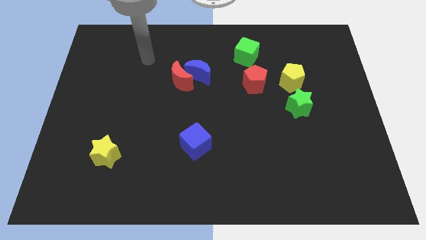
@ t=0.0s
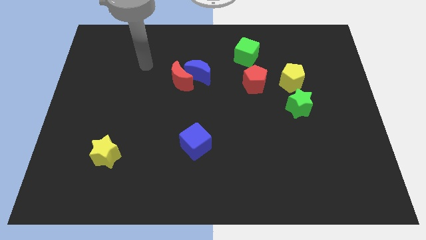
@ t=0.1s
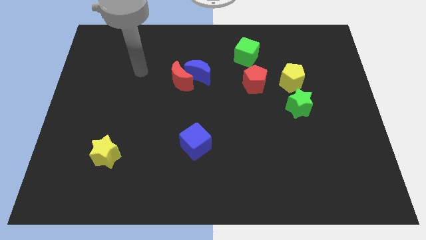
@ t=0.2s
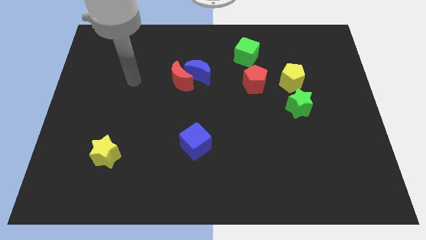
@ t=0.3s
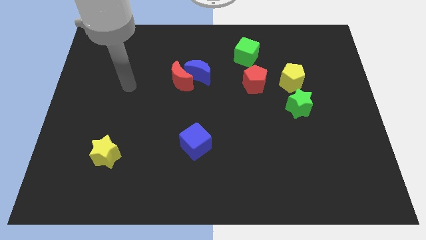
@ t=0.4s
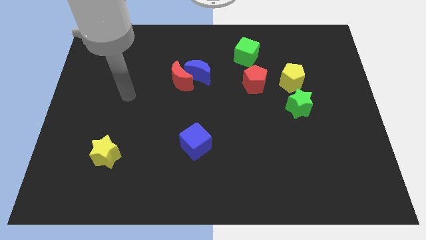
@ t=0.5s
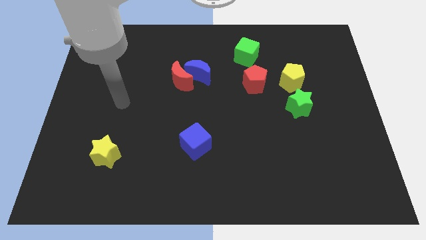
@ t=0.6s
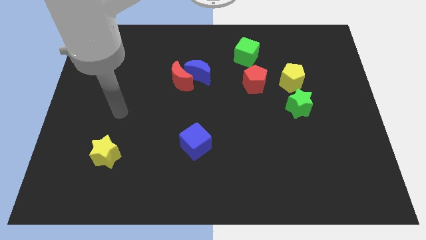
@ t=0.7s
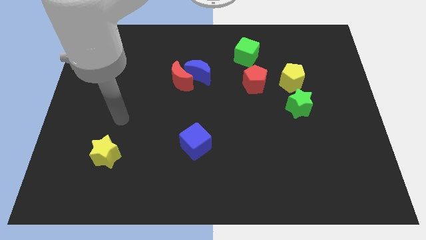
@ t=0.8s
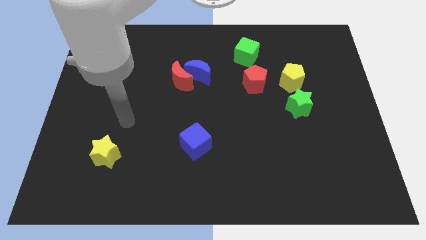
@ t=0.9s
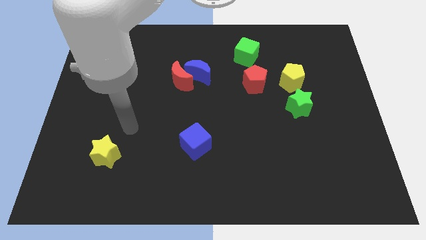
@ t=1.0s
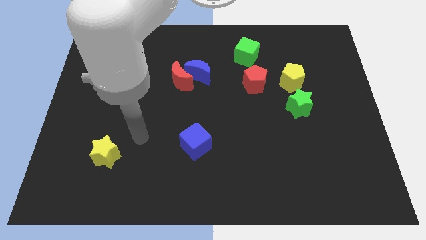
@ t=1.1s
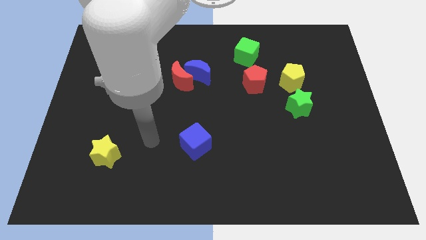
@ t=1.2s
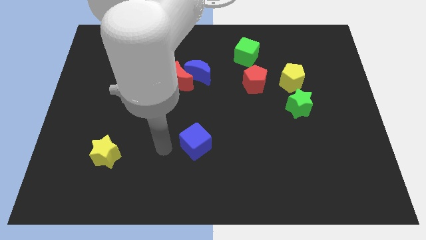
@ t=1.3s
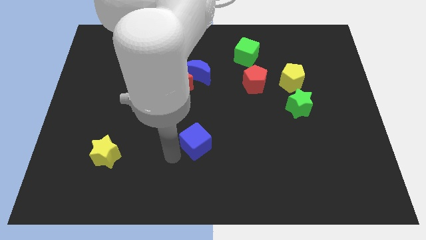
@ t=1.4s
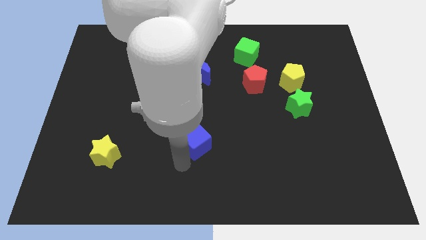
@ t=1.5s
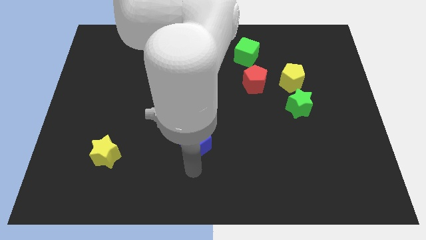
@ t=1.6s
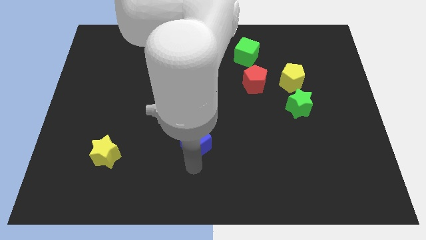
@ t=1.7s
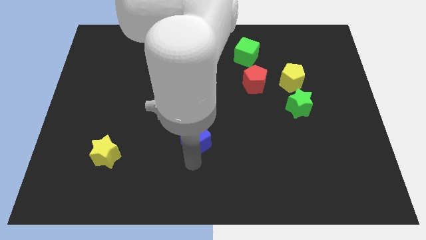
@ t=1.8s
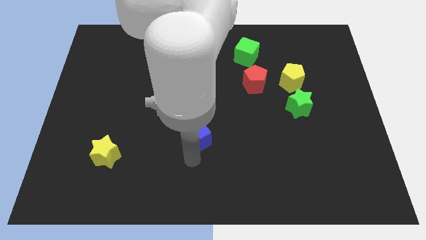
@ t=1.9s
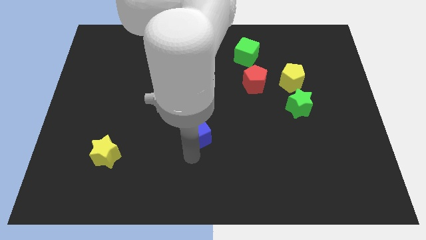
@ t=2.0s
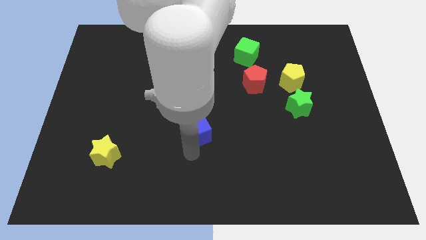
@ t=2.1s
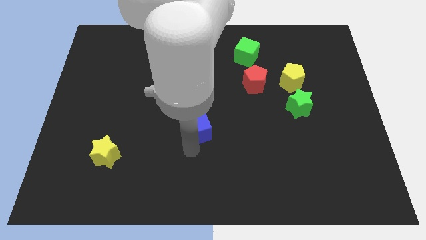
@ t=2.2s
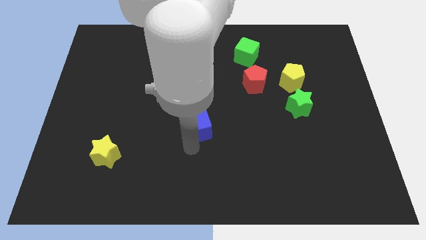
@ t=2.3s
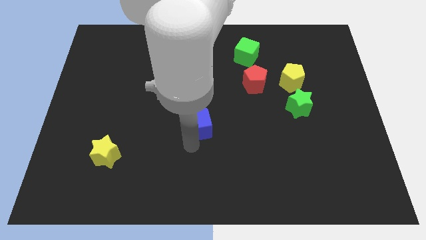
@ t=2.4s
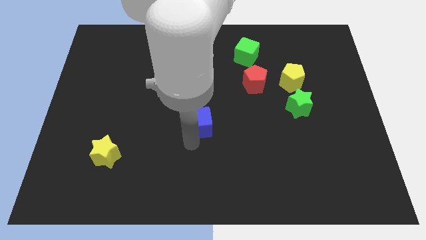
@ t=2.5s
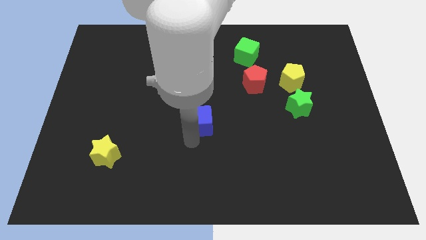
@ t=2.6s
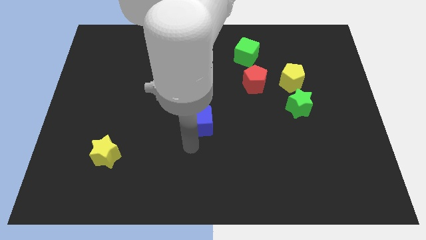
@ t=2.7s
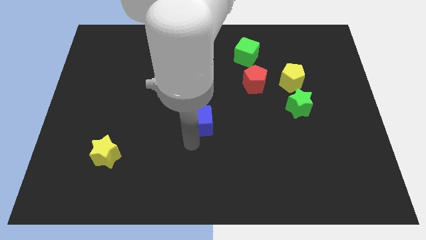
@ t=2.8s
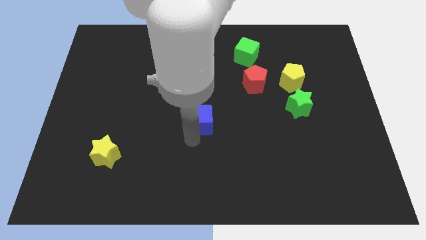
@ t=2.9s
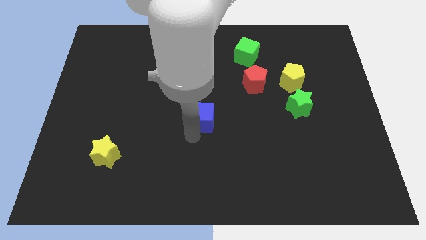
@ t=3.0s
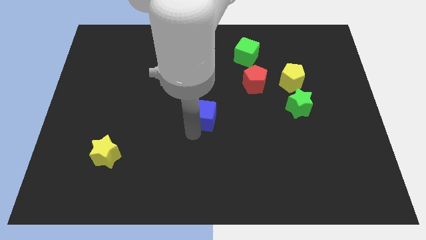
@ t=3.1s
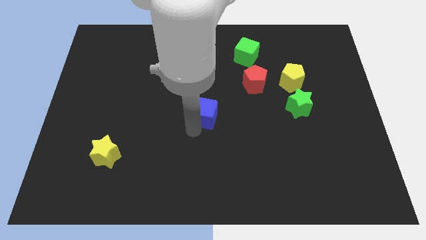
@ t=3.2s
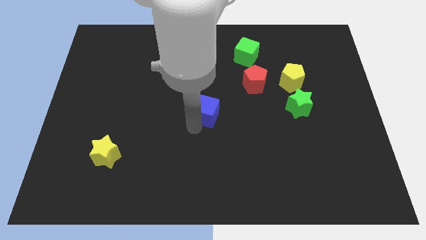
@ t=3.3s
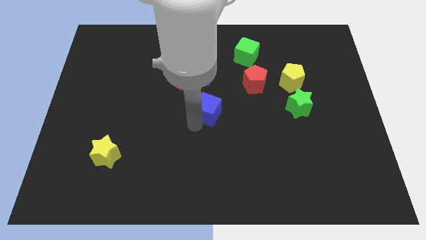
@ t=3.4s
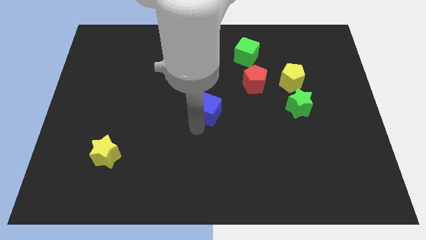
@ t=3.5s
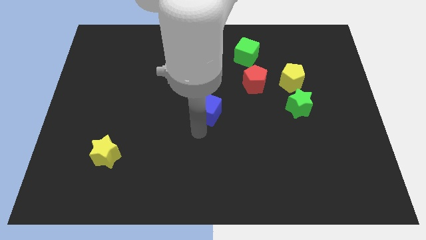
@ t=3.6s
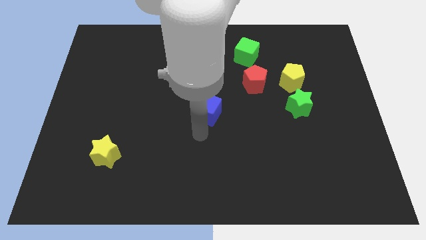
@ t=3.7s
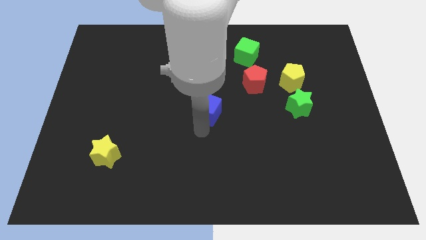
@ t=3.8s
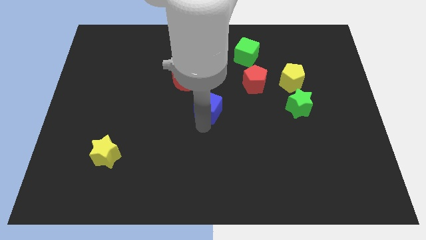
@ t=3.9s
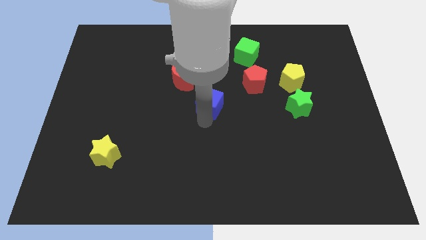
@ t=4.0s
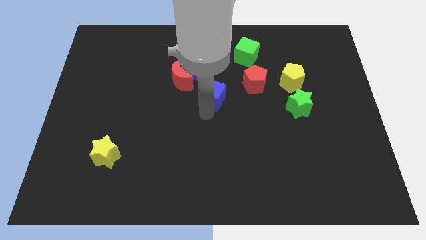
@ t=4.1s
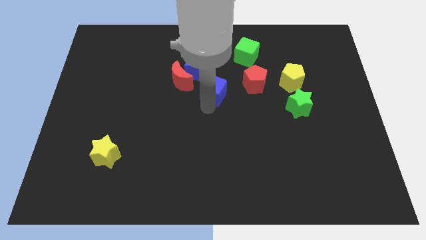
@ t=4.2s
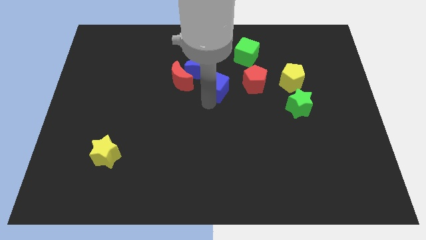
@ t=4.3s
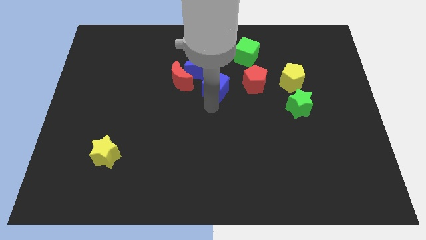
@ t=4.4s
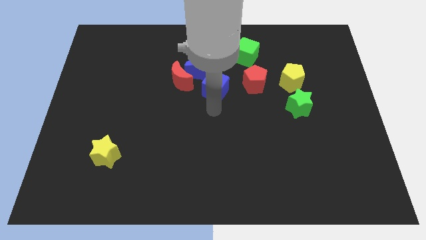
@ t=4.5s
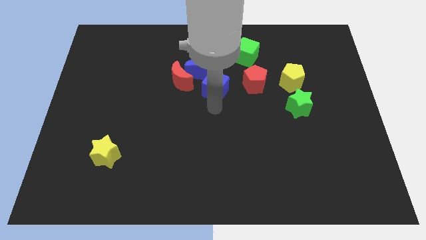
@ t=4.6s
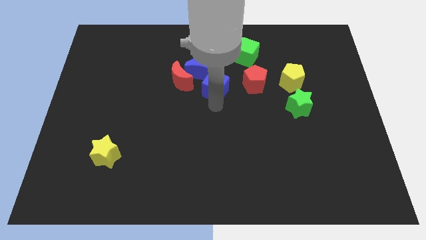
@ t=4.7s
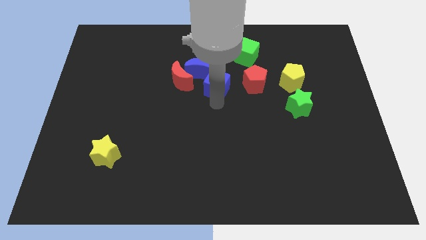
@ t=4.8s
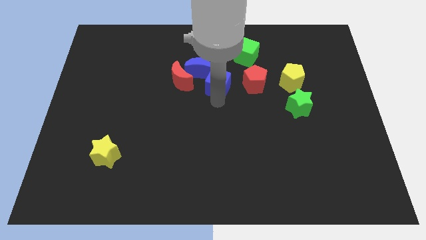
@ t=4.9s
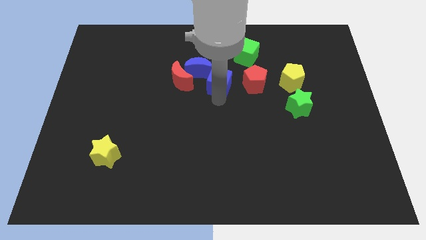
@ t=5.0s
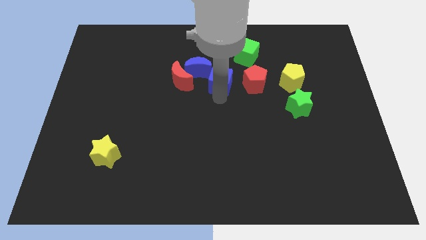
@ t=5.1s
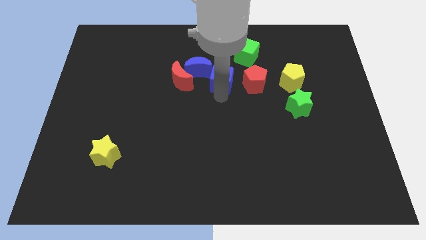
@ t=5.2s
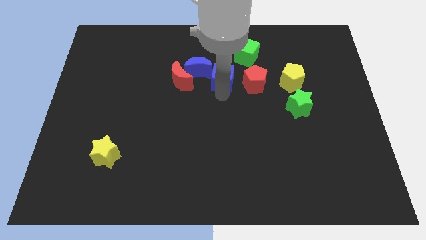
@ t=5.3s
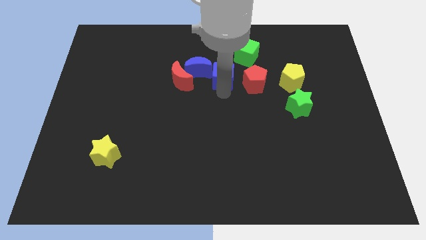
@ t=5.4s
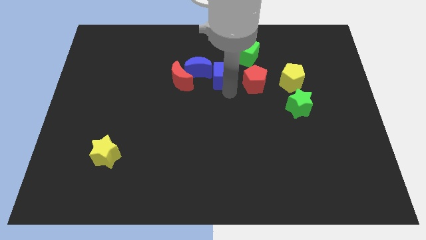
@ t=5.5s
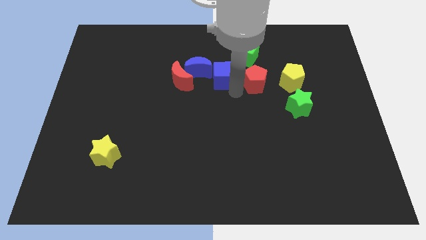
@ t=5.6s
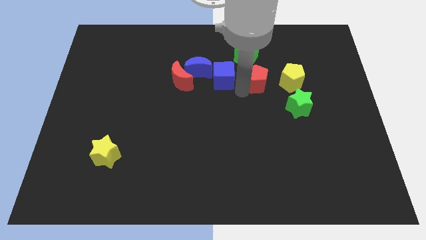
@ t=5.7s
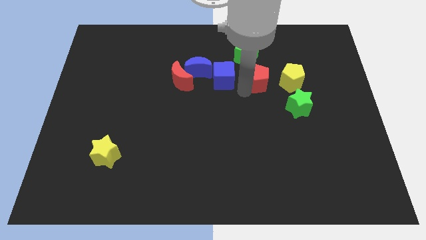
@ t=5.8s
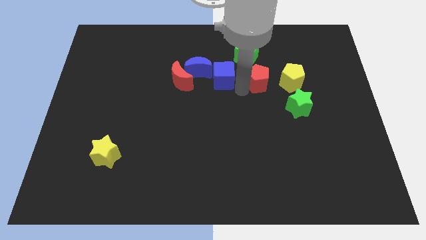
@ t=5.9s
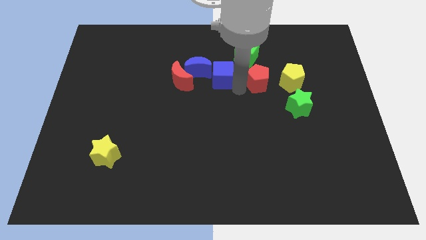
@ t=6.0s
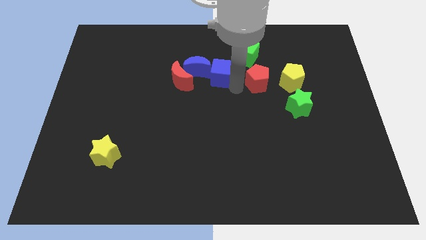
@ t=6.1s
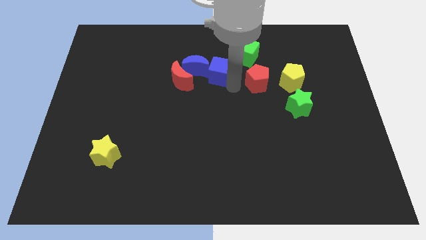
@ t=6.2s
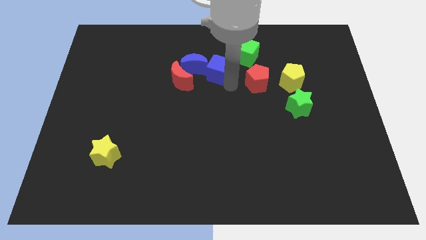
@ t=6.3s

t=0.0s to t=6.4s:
push the blue cube diagonally up and to the right of the red moon

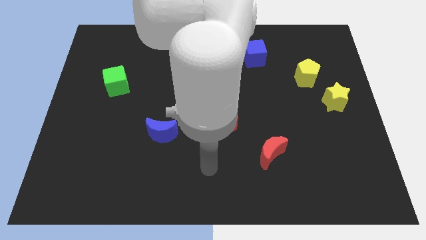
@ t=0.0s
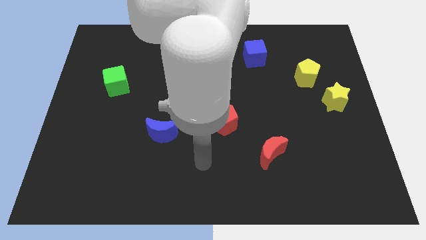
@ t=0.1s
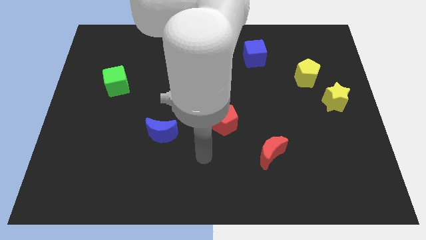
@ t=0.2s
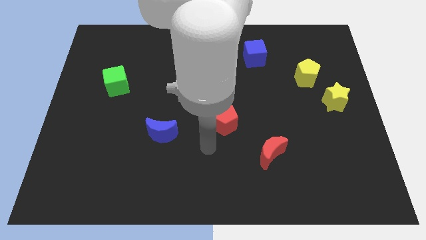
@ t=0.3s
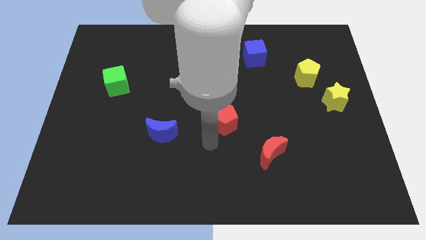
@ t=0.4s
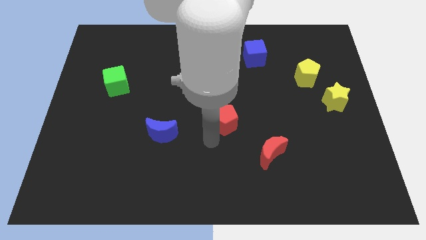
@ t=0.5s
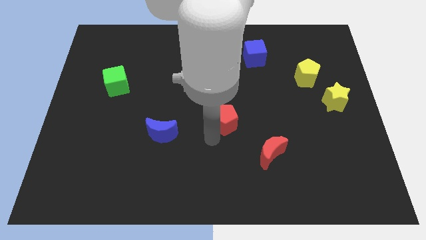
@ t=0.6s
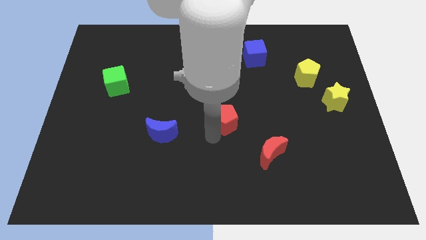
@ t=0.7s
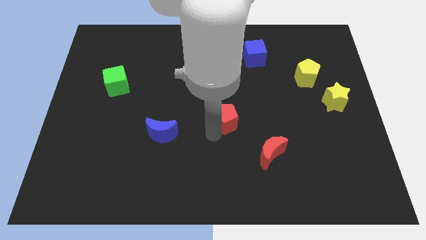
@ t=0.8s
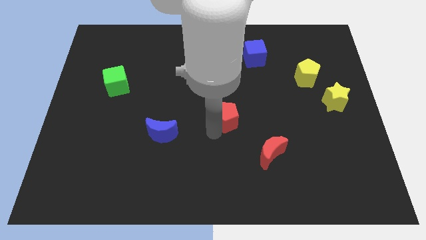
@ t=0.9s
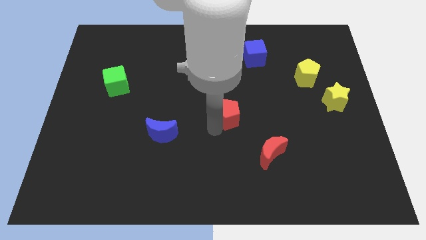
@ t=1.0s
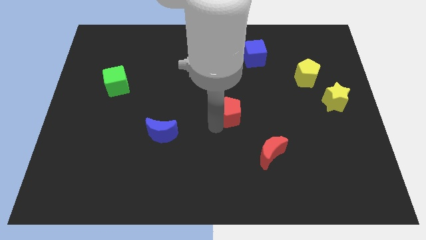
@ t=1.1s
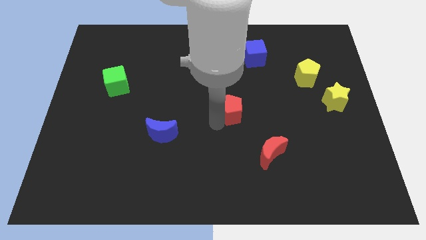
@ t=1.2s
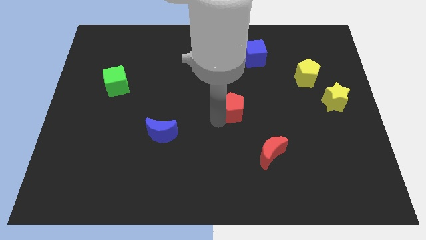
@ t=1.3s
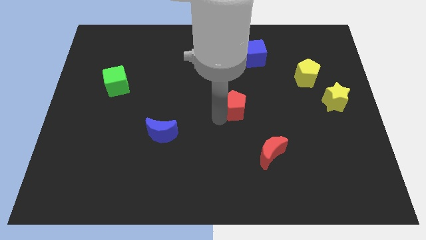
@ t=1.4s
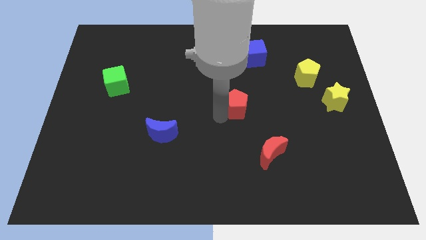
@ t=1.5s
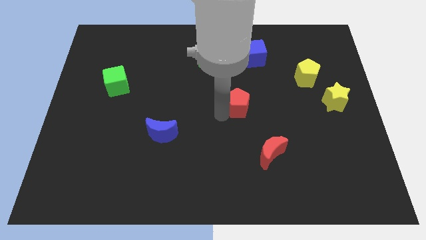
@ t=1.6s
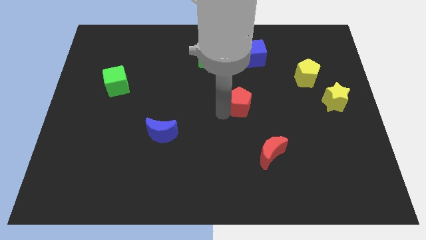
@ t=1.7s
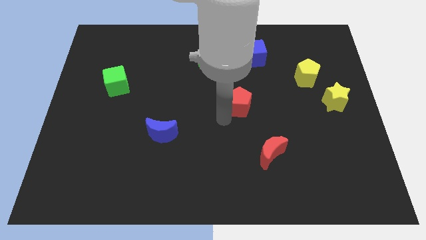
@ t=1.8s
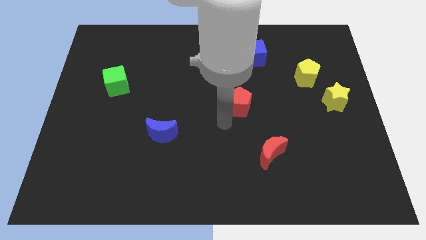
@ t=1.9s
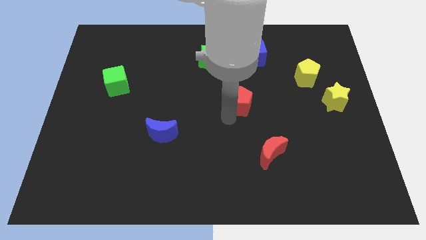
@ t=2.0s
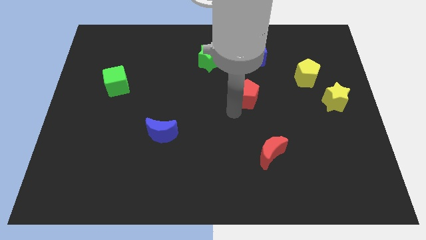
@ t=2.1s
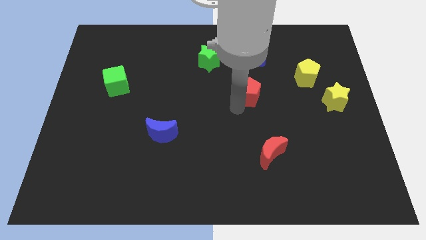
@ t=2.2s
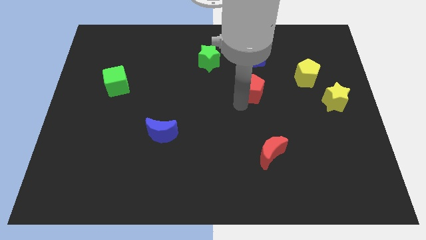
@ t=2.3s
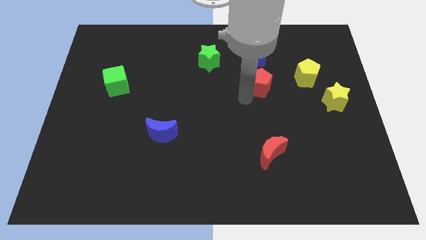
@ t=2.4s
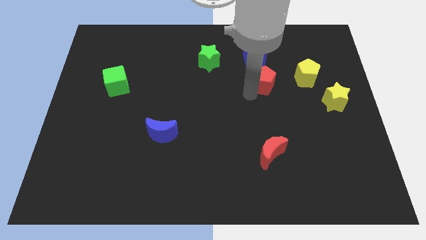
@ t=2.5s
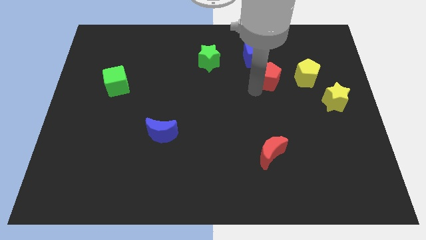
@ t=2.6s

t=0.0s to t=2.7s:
slide the red pentagon to the bottom right of the blue cube
